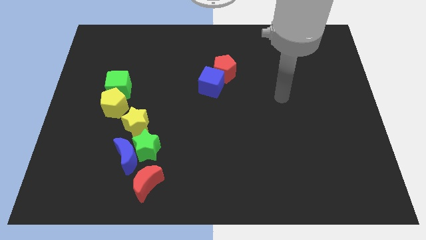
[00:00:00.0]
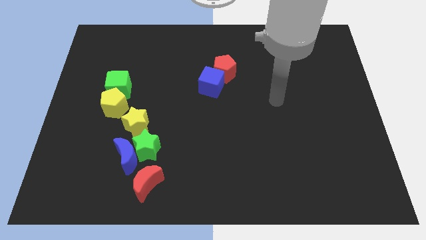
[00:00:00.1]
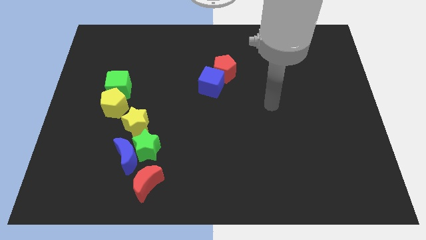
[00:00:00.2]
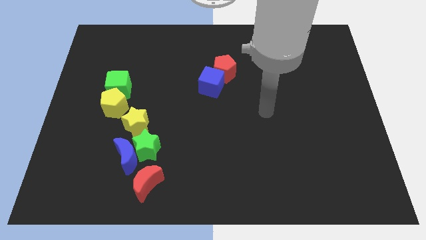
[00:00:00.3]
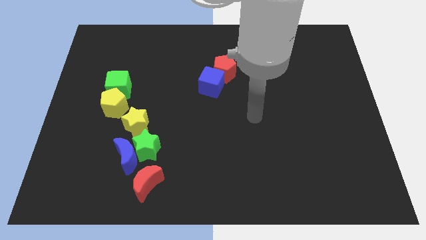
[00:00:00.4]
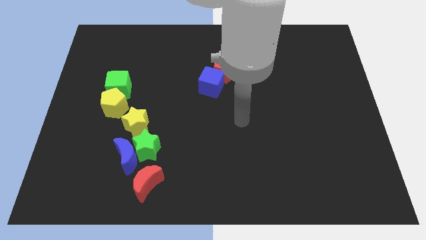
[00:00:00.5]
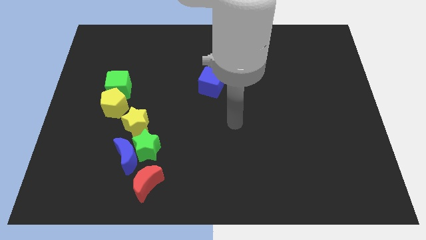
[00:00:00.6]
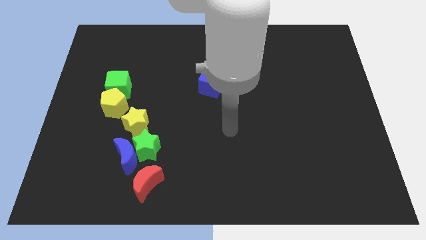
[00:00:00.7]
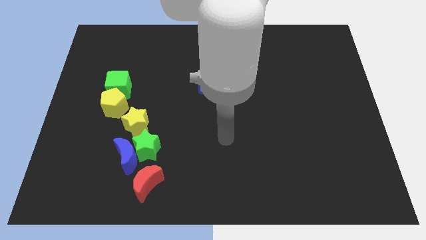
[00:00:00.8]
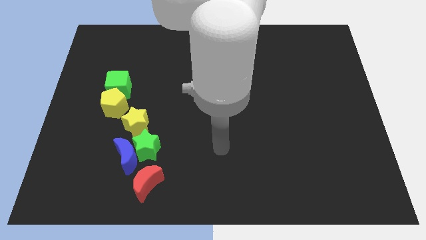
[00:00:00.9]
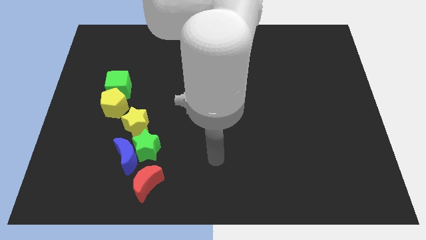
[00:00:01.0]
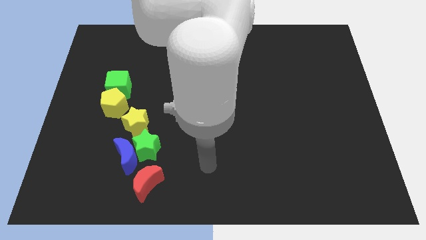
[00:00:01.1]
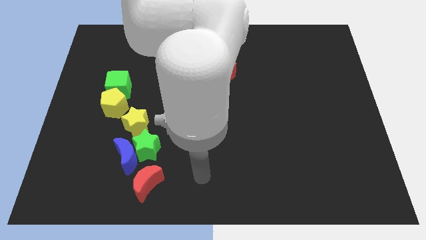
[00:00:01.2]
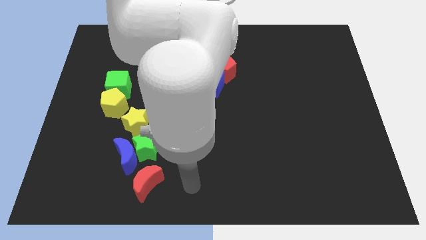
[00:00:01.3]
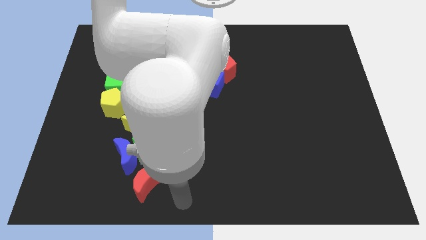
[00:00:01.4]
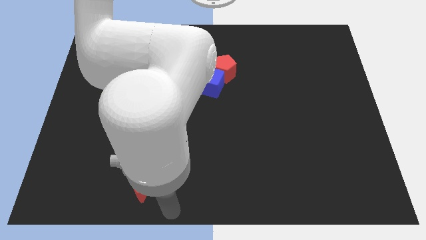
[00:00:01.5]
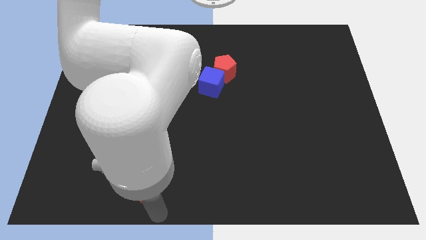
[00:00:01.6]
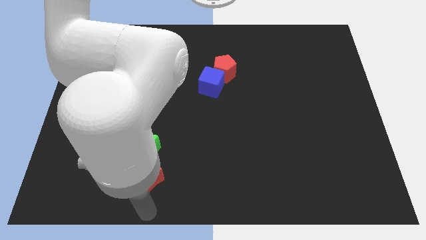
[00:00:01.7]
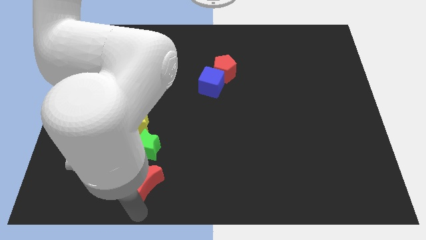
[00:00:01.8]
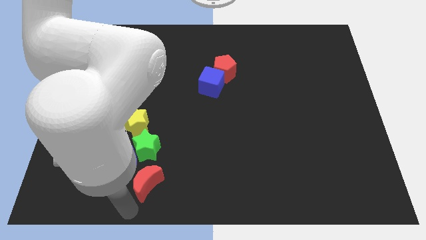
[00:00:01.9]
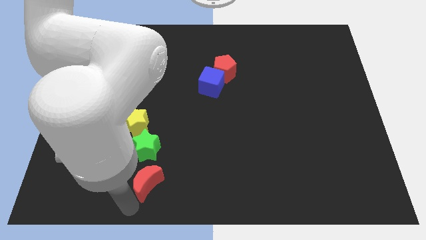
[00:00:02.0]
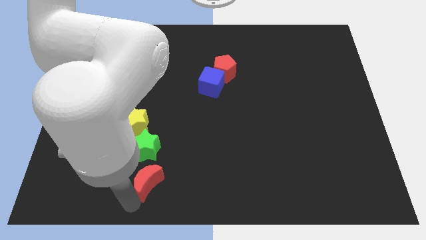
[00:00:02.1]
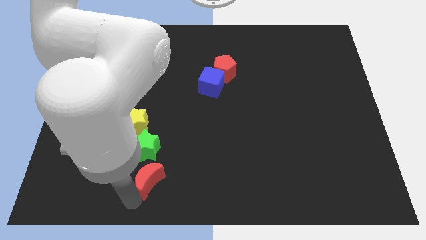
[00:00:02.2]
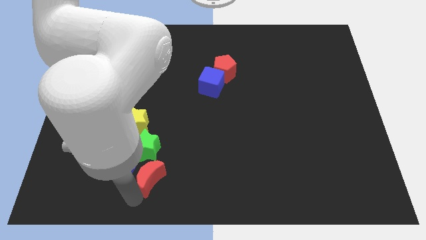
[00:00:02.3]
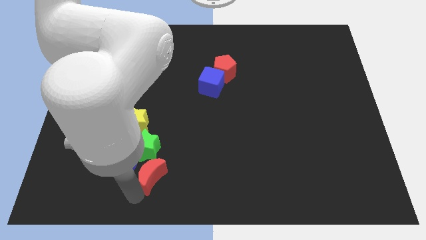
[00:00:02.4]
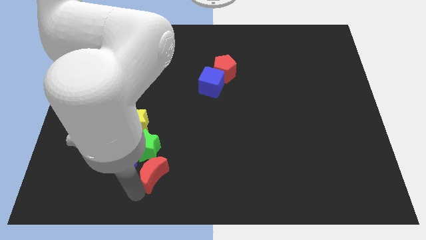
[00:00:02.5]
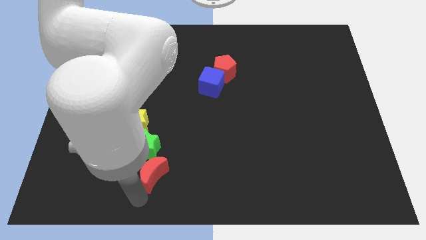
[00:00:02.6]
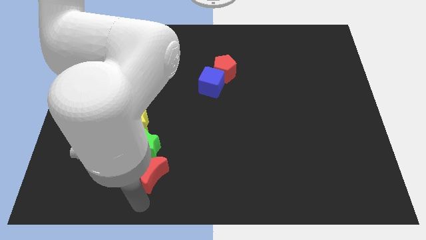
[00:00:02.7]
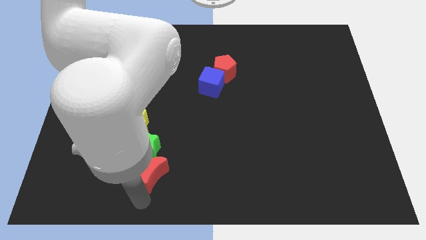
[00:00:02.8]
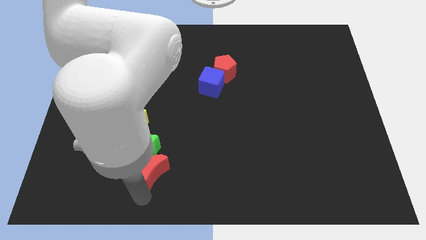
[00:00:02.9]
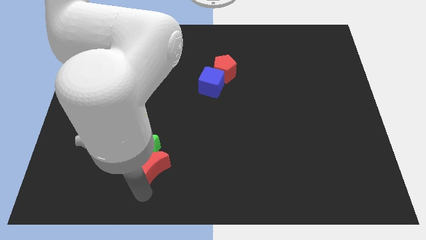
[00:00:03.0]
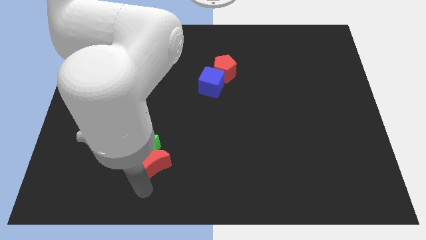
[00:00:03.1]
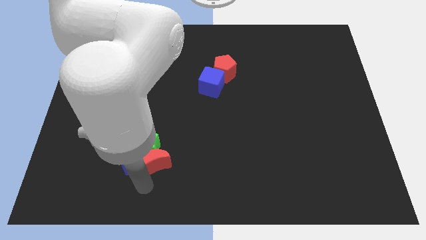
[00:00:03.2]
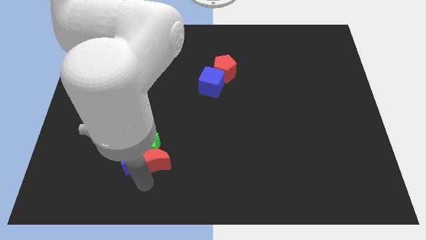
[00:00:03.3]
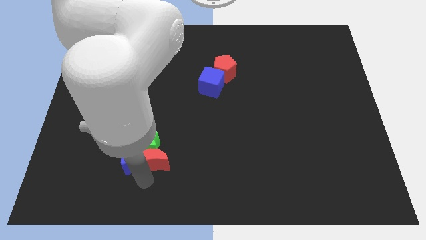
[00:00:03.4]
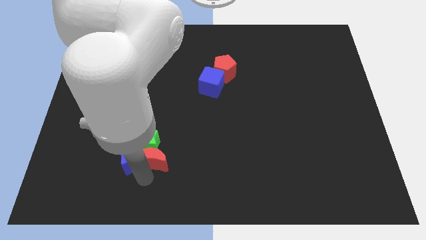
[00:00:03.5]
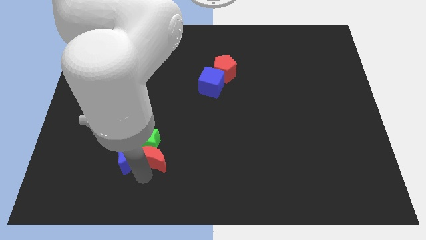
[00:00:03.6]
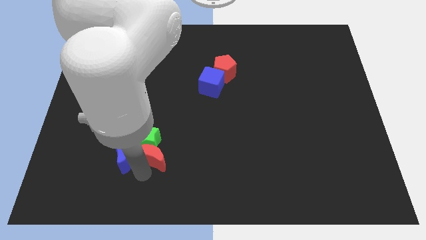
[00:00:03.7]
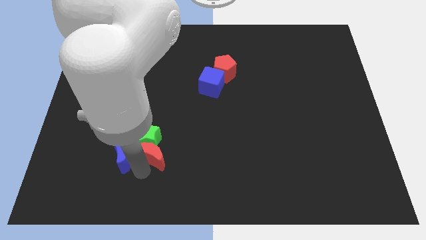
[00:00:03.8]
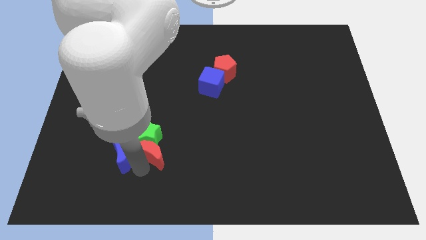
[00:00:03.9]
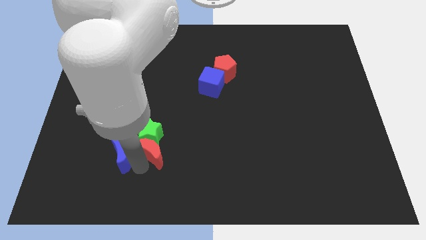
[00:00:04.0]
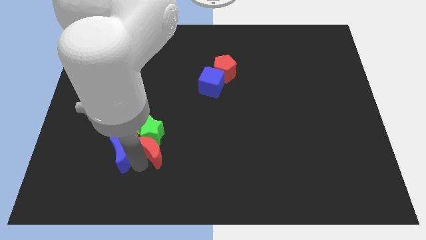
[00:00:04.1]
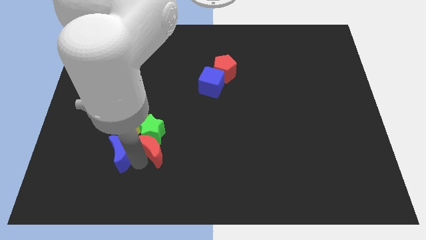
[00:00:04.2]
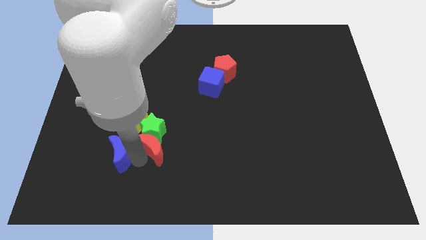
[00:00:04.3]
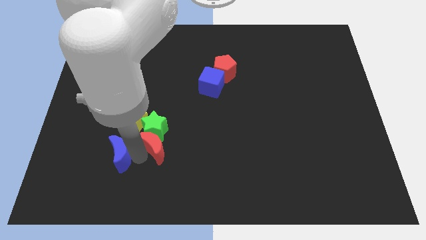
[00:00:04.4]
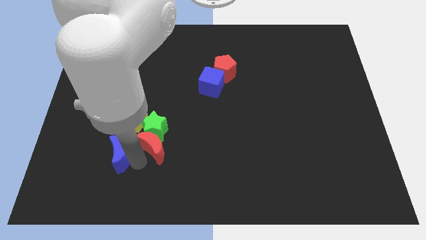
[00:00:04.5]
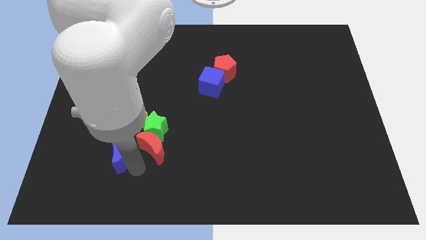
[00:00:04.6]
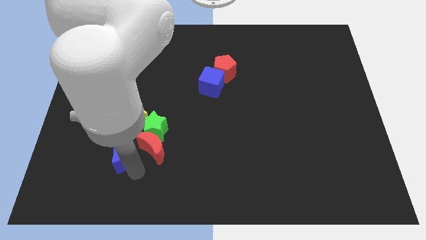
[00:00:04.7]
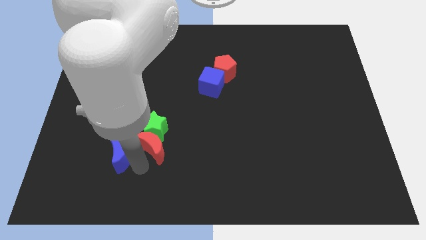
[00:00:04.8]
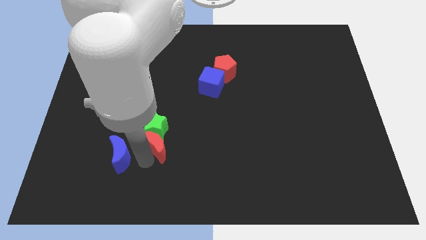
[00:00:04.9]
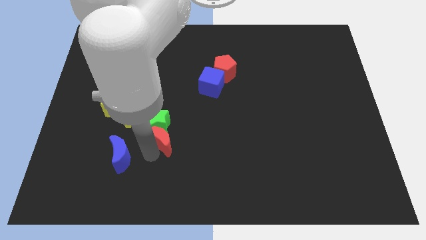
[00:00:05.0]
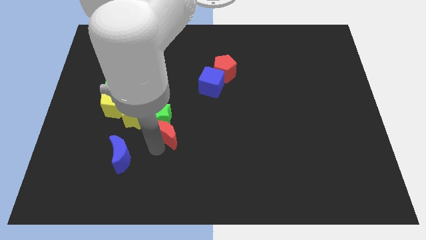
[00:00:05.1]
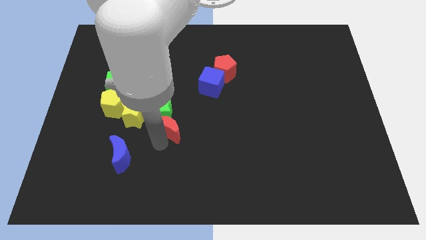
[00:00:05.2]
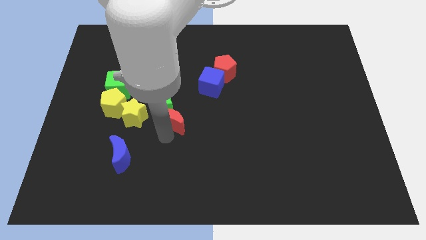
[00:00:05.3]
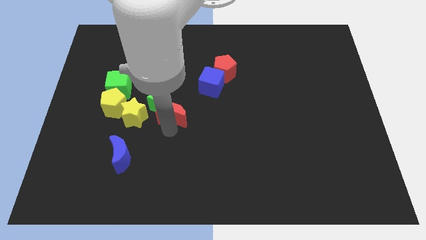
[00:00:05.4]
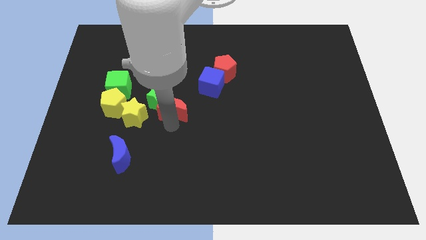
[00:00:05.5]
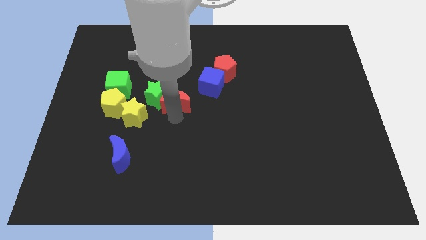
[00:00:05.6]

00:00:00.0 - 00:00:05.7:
push the red moon up

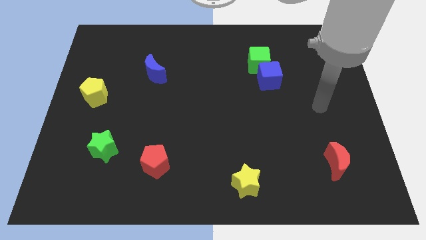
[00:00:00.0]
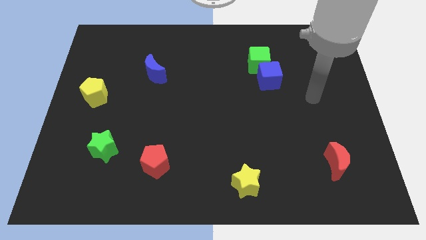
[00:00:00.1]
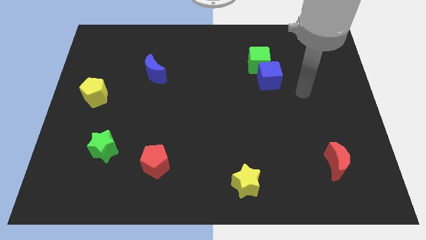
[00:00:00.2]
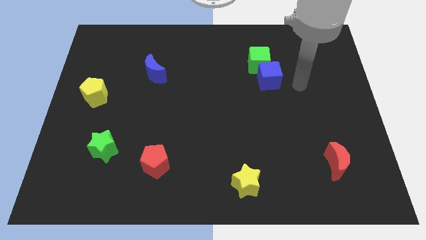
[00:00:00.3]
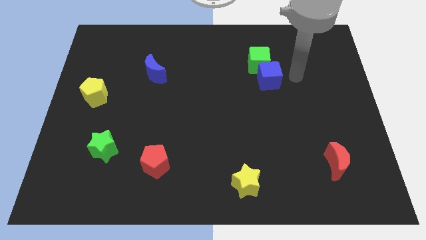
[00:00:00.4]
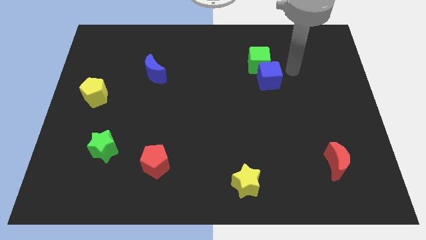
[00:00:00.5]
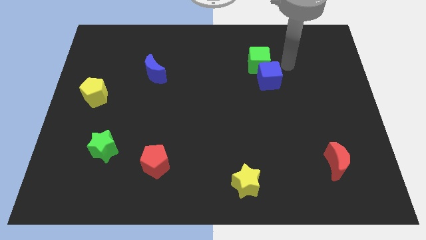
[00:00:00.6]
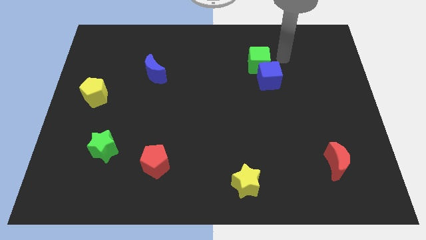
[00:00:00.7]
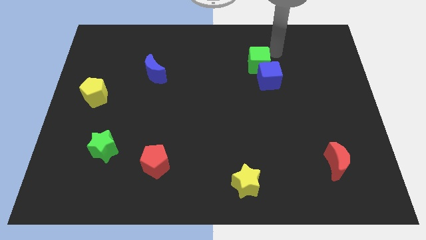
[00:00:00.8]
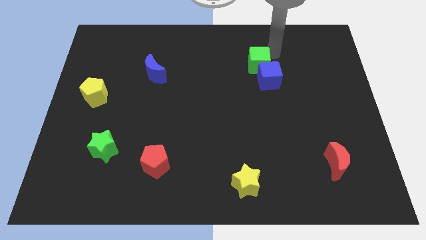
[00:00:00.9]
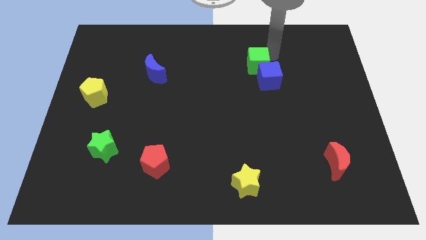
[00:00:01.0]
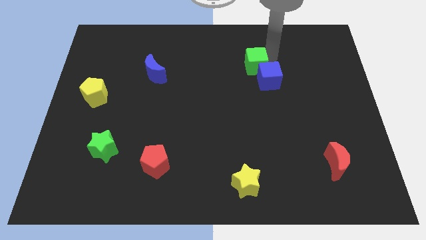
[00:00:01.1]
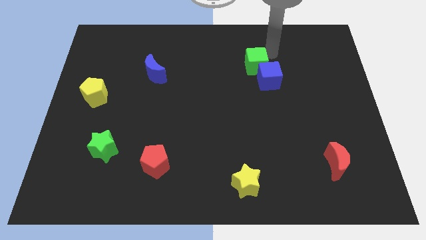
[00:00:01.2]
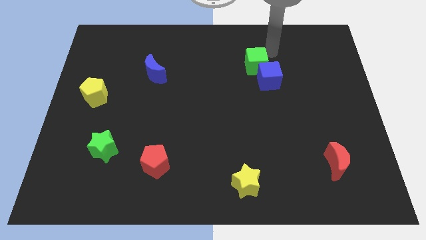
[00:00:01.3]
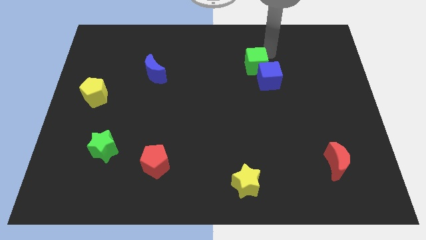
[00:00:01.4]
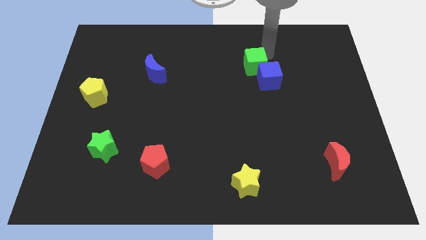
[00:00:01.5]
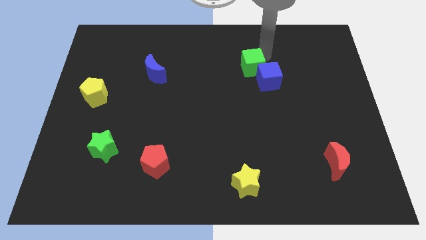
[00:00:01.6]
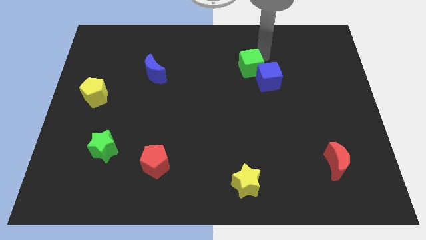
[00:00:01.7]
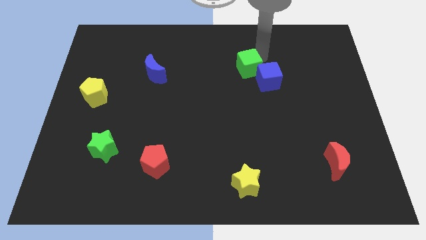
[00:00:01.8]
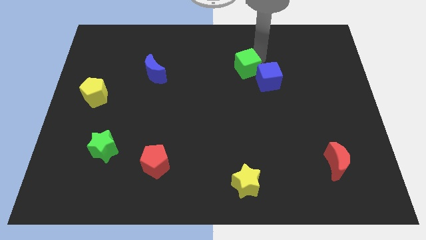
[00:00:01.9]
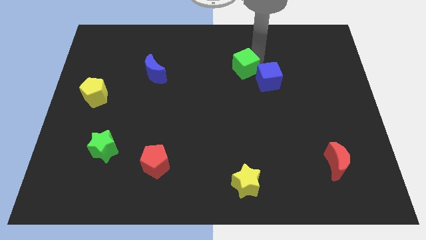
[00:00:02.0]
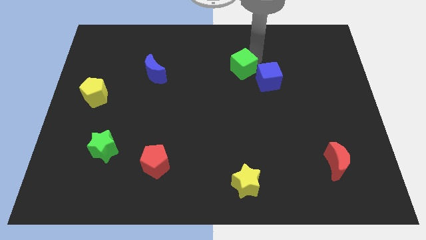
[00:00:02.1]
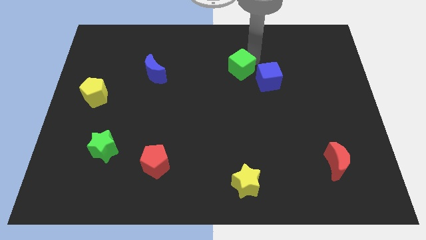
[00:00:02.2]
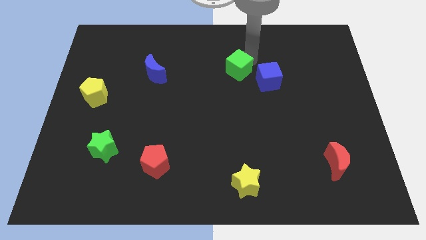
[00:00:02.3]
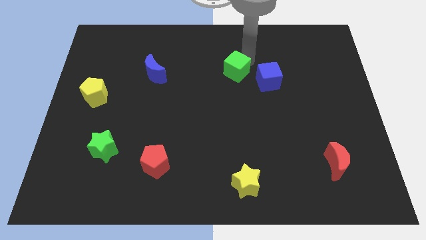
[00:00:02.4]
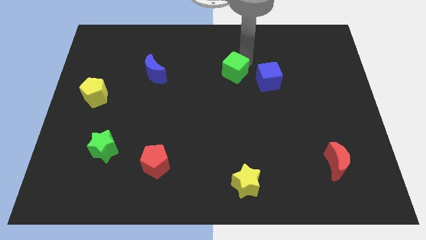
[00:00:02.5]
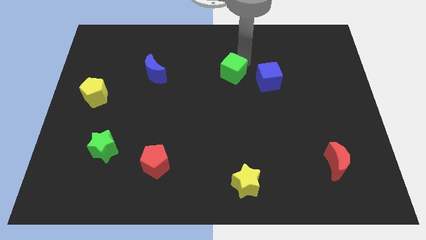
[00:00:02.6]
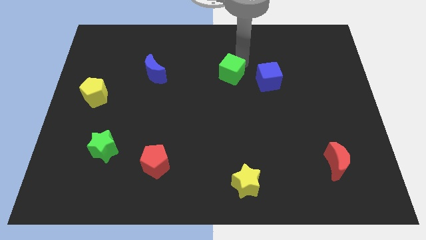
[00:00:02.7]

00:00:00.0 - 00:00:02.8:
move the green cube down and left diagonally somewhat
